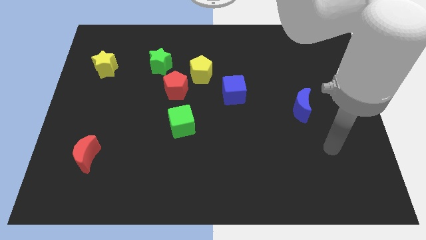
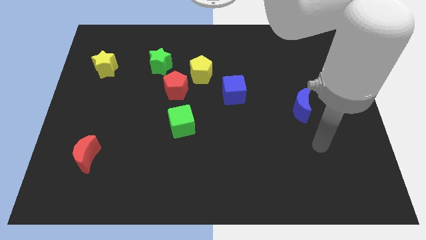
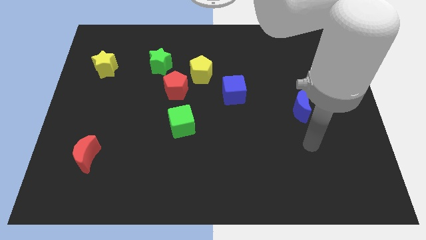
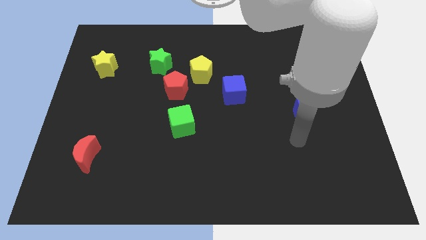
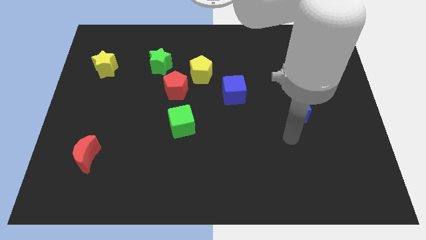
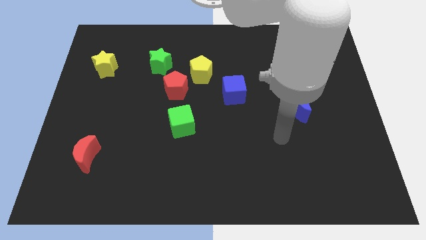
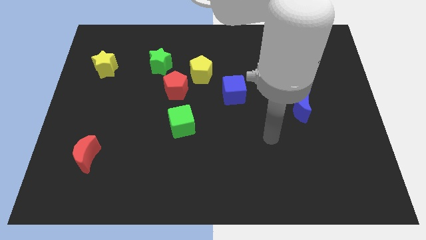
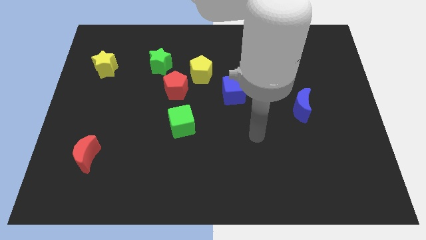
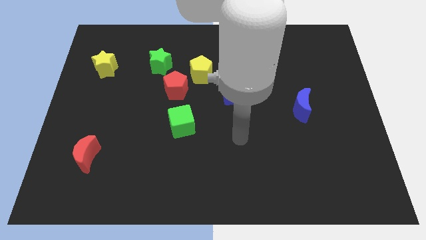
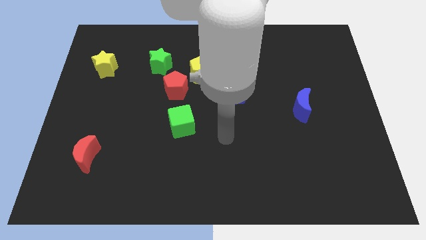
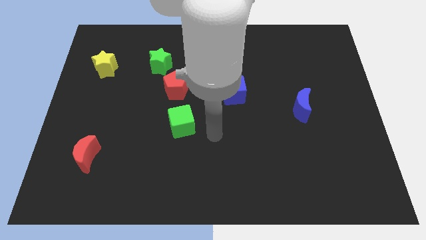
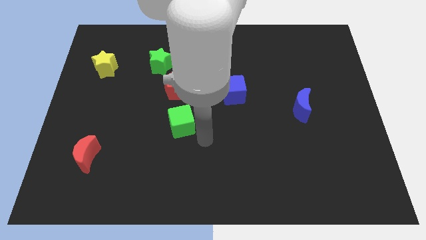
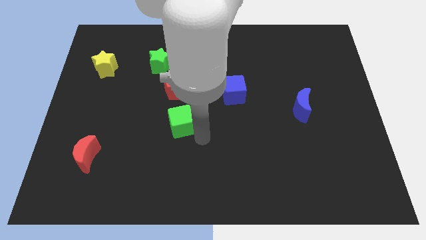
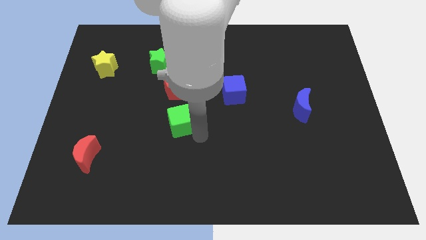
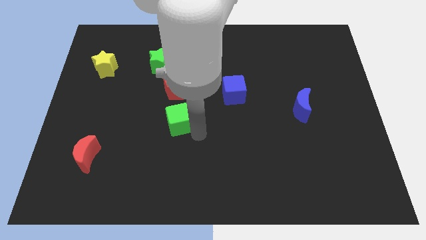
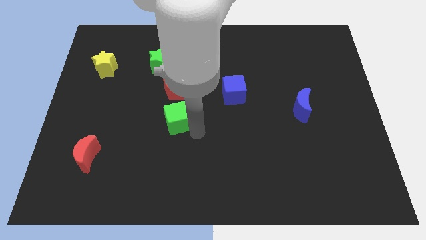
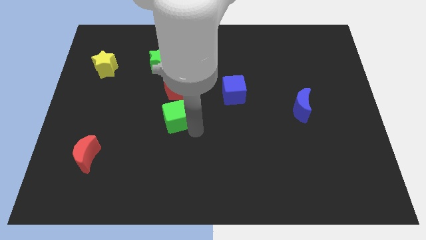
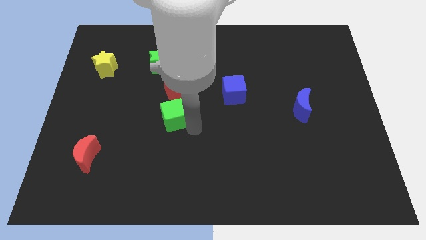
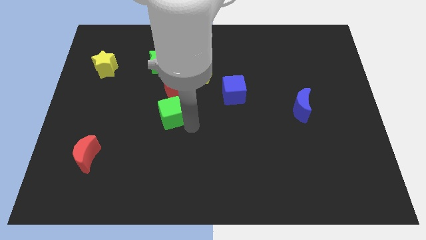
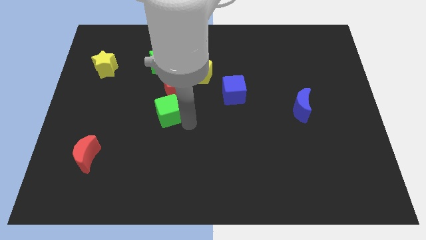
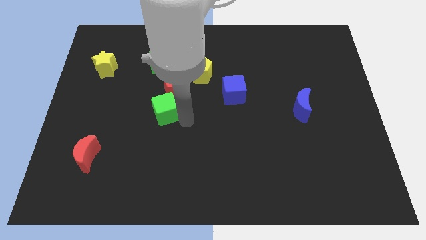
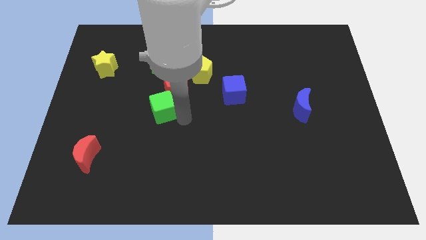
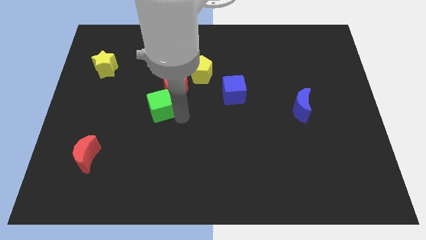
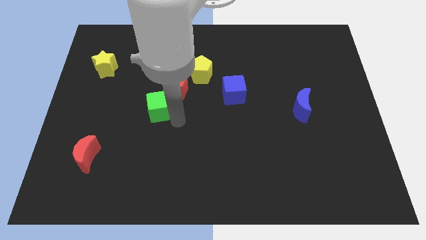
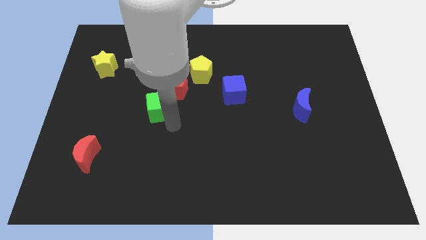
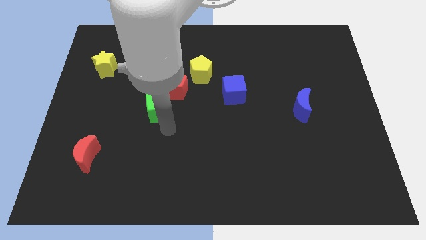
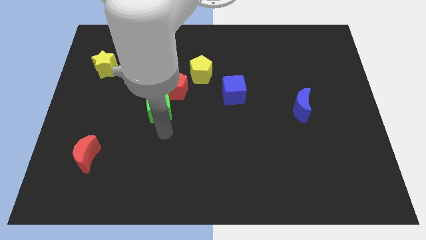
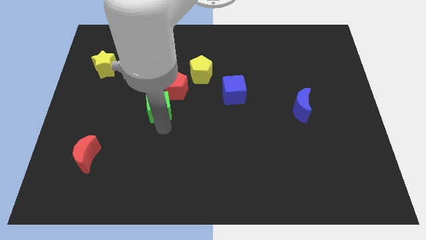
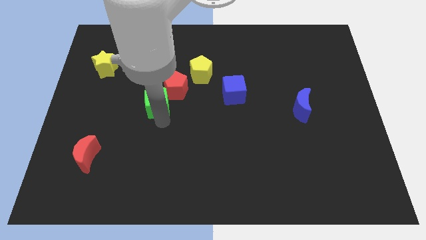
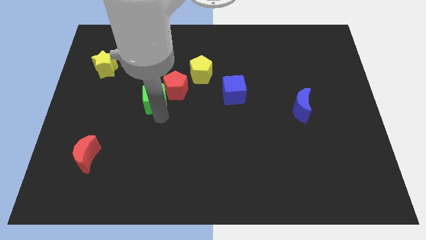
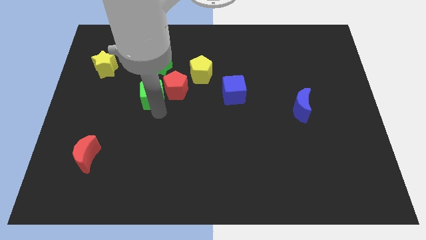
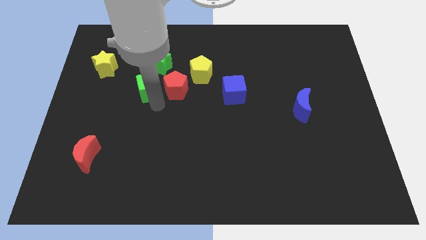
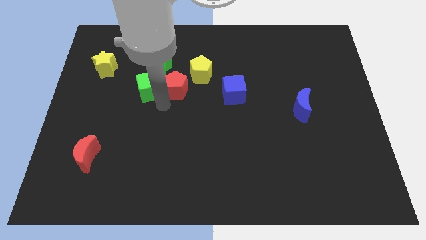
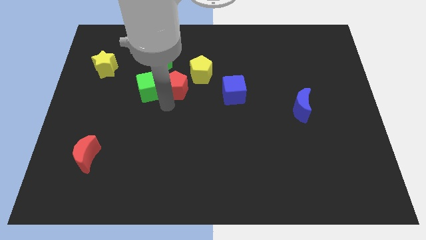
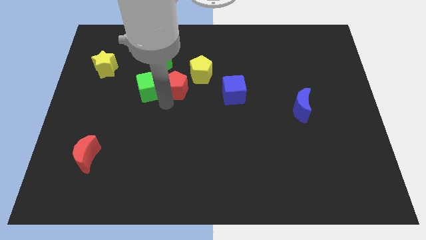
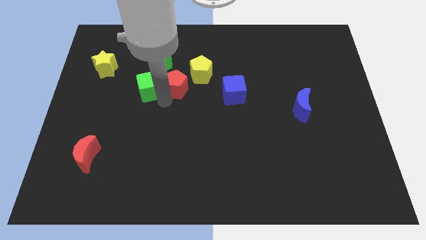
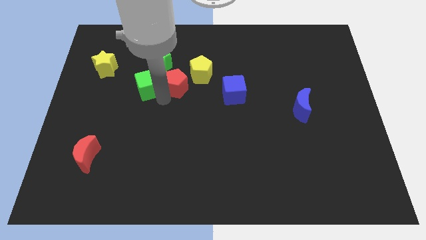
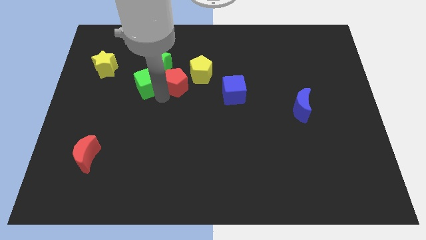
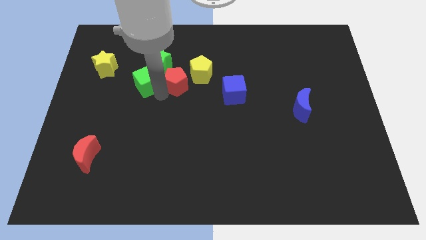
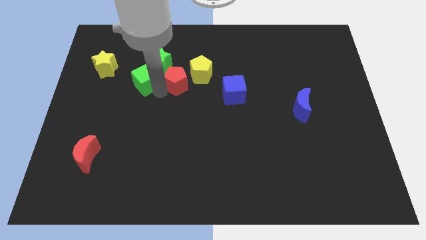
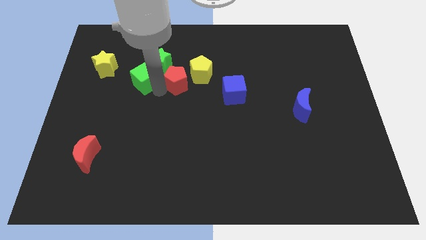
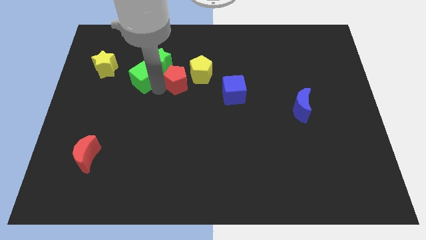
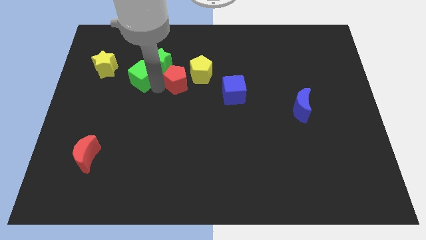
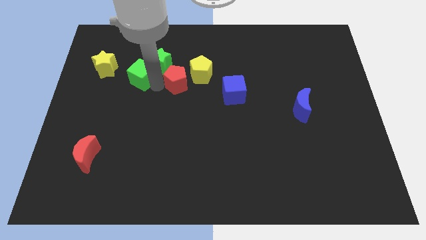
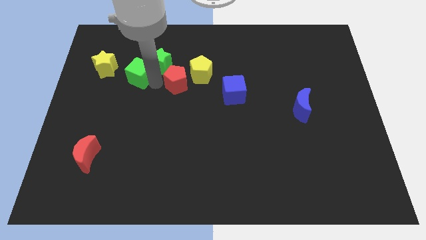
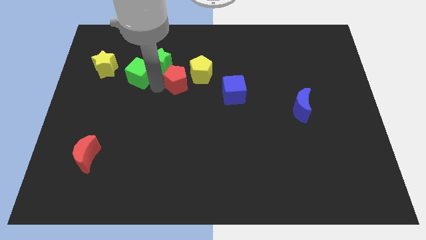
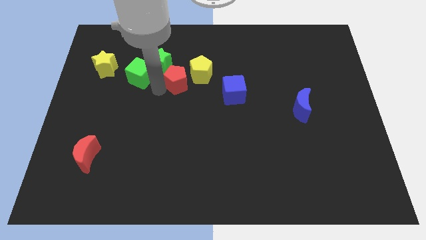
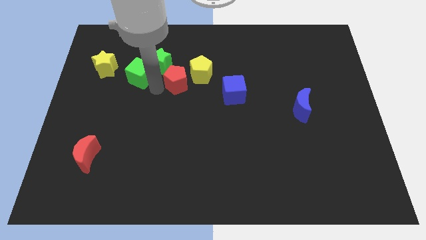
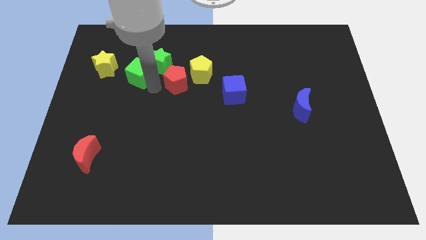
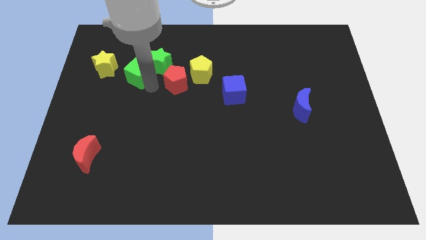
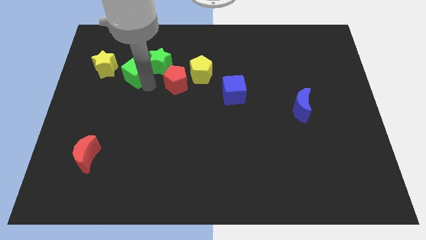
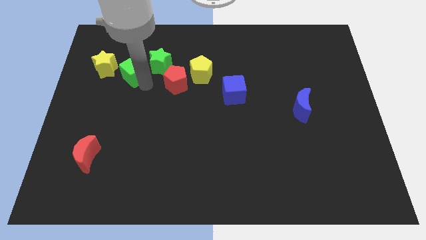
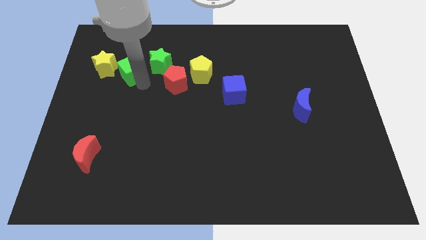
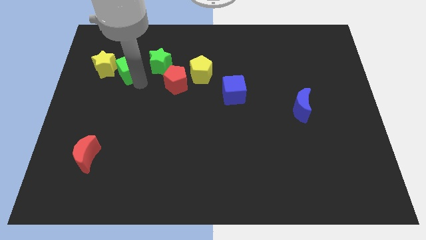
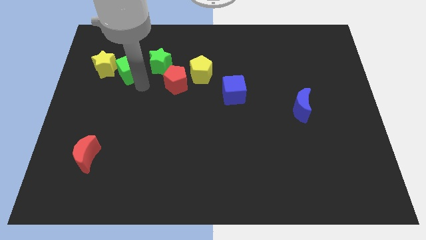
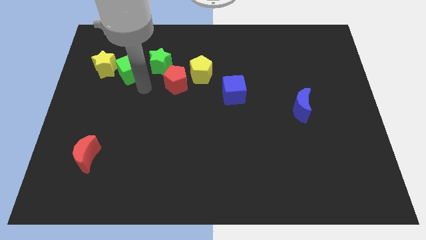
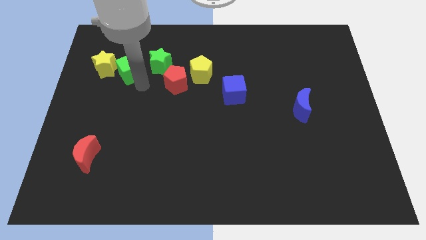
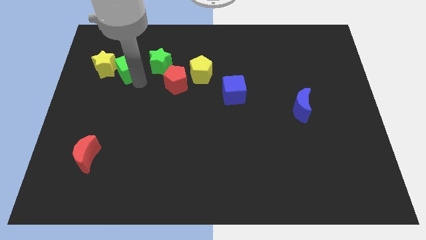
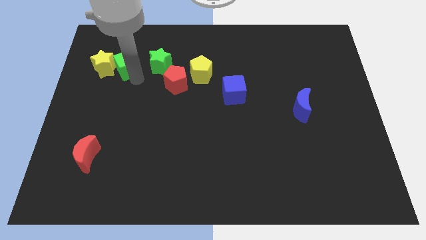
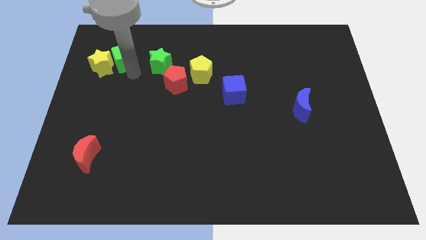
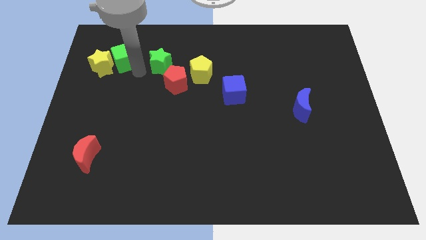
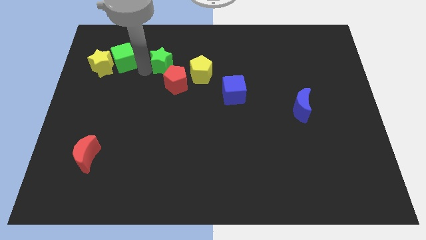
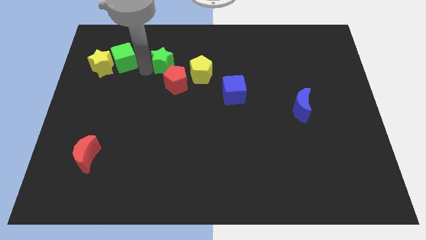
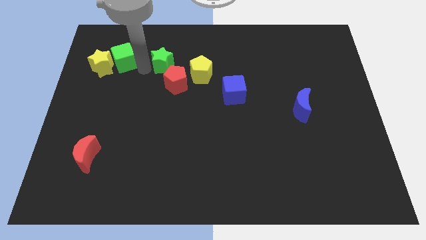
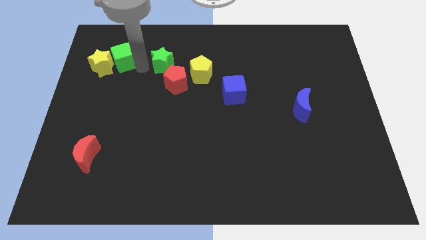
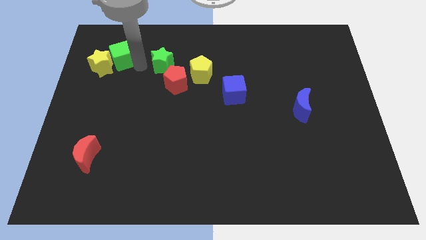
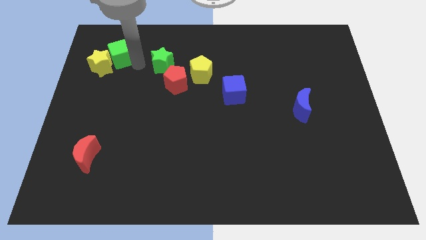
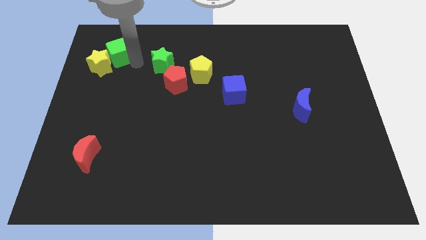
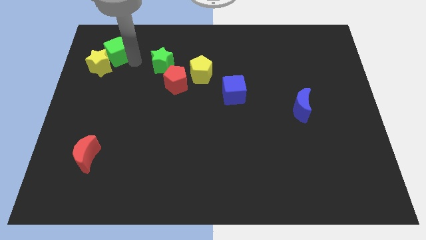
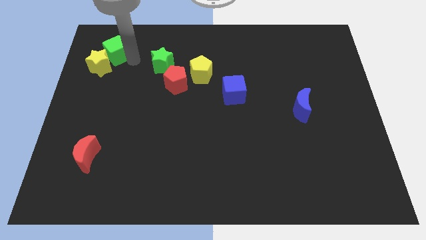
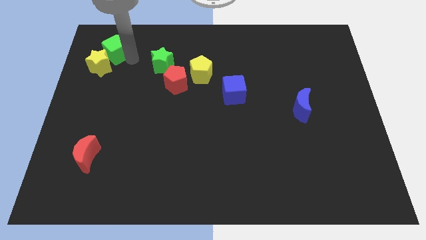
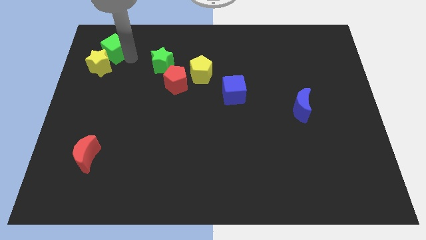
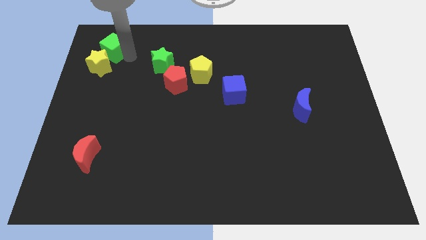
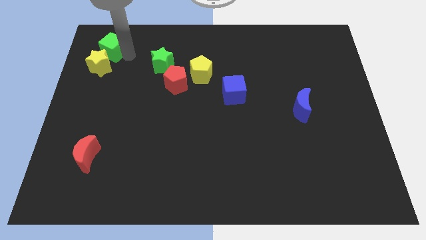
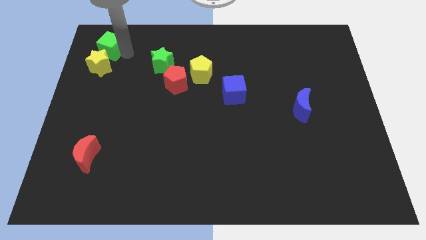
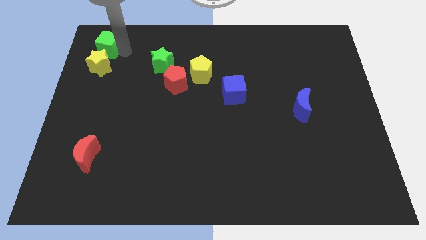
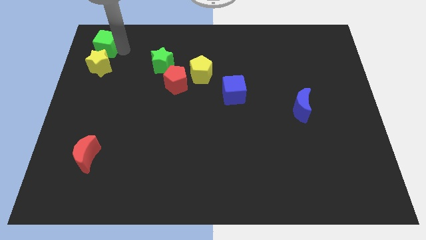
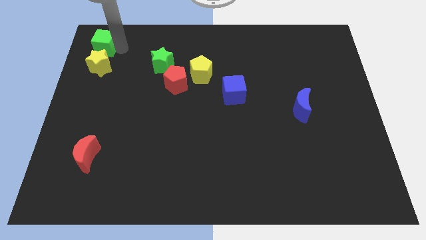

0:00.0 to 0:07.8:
slide the green cube to the top left
